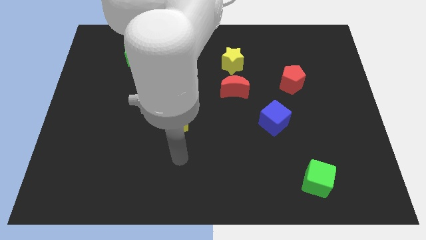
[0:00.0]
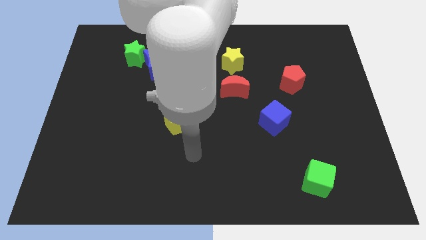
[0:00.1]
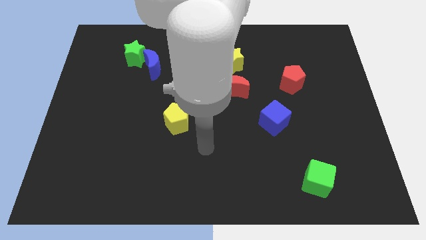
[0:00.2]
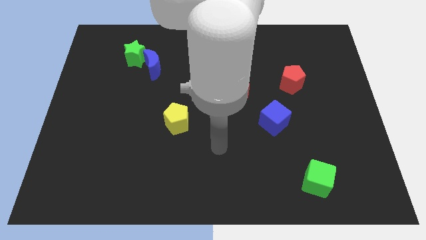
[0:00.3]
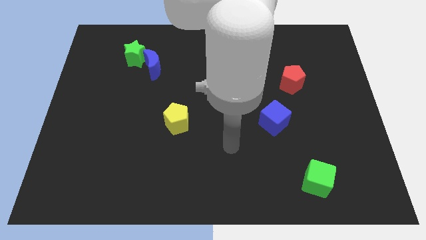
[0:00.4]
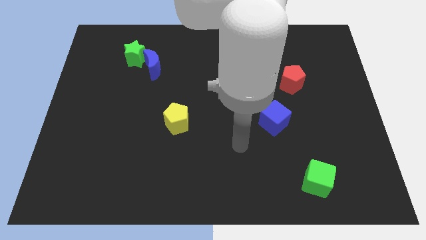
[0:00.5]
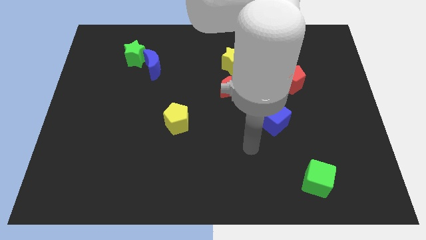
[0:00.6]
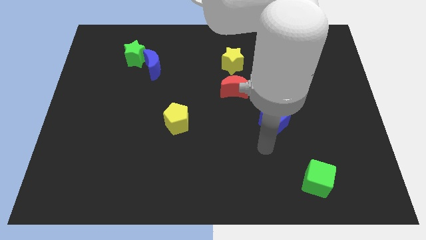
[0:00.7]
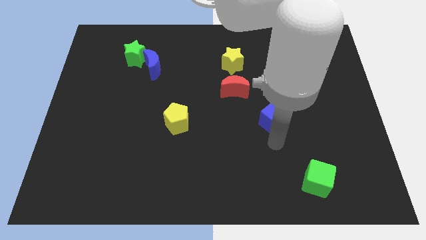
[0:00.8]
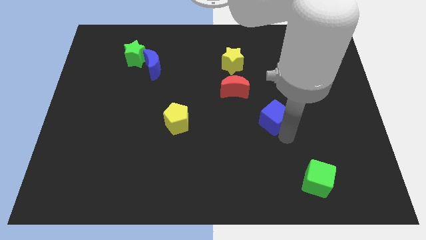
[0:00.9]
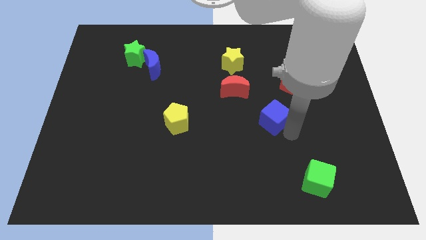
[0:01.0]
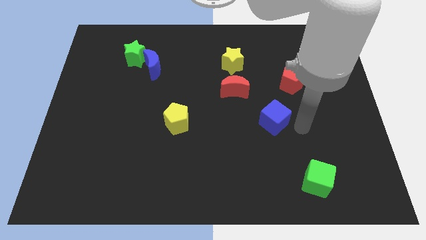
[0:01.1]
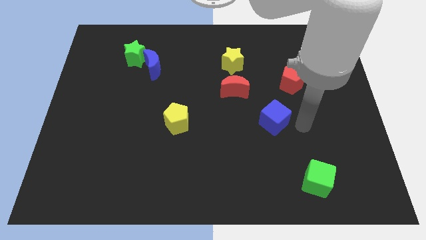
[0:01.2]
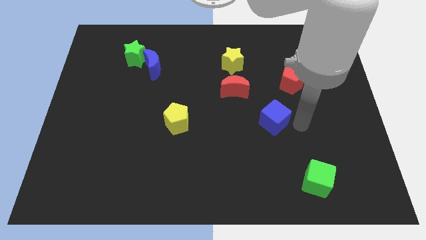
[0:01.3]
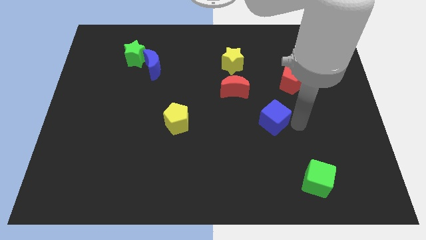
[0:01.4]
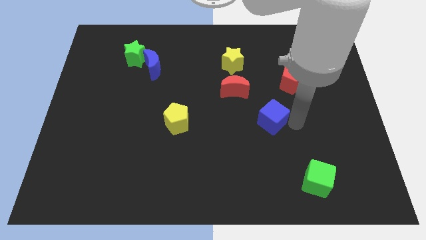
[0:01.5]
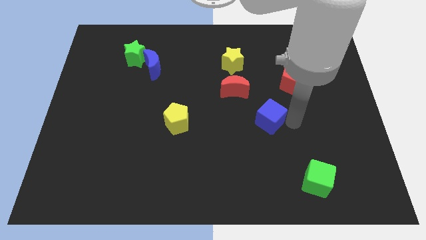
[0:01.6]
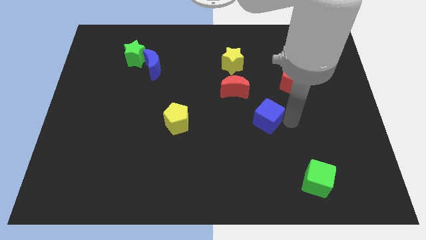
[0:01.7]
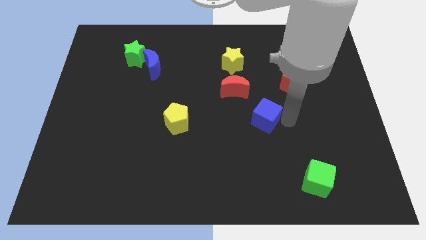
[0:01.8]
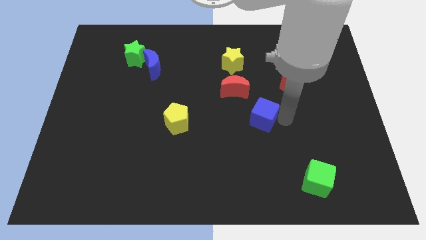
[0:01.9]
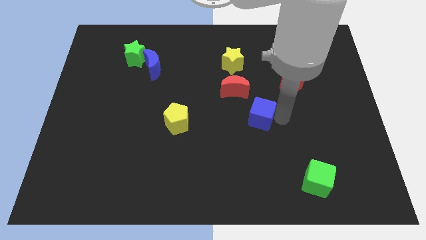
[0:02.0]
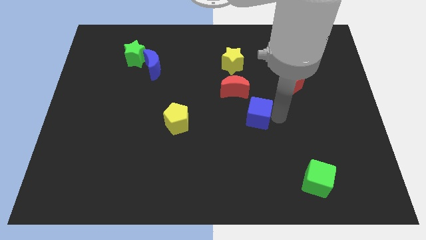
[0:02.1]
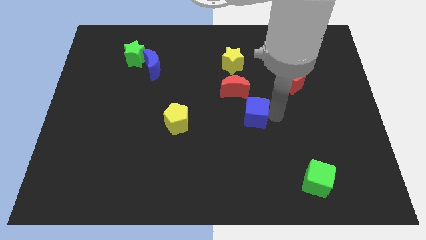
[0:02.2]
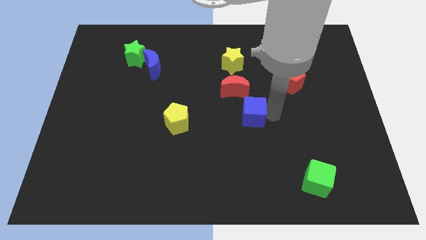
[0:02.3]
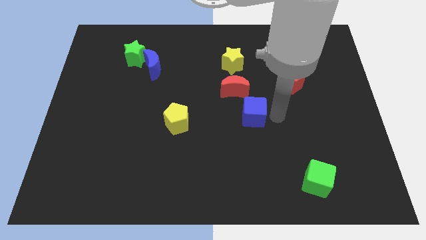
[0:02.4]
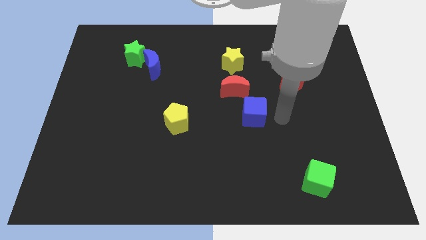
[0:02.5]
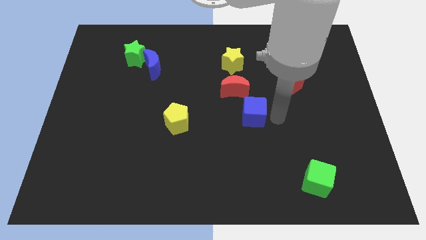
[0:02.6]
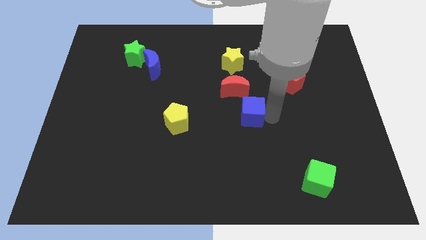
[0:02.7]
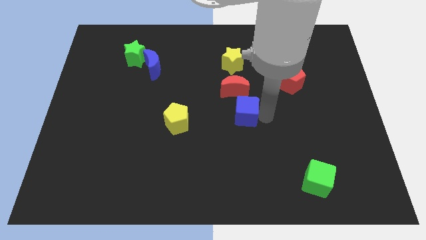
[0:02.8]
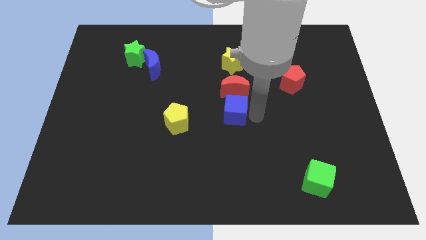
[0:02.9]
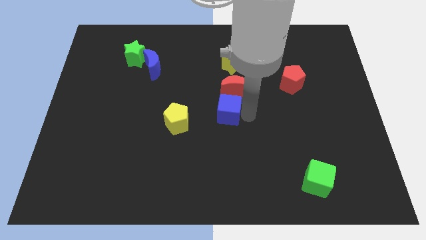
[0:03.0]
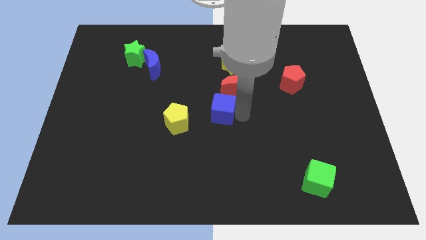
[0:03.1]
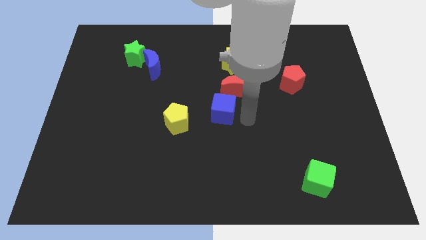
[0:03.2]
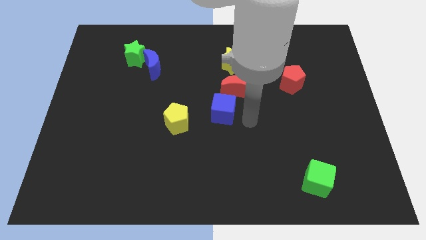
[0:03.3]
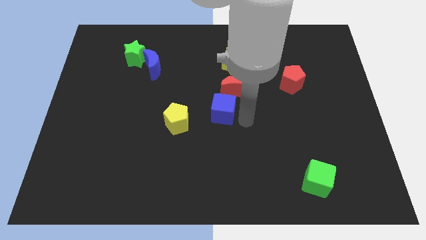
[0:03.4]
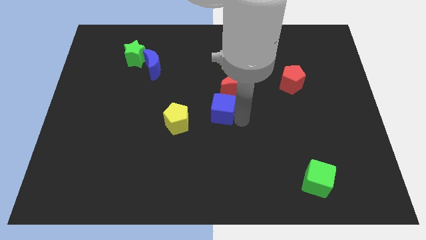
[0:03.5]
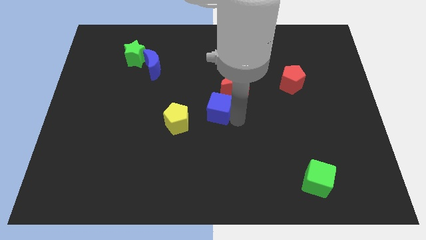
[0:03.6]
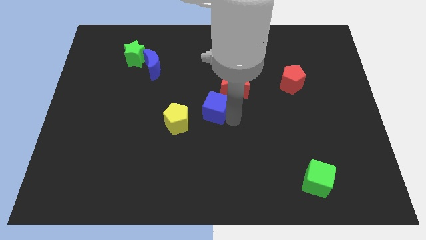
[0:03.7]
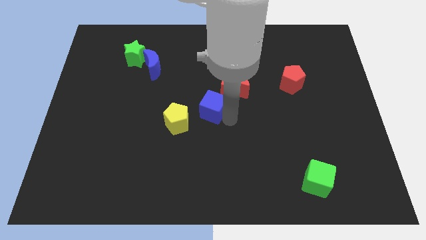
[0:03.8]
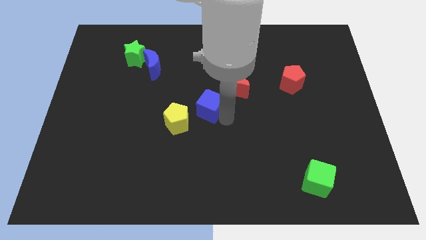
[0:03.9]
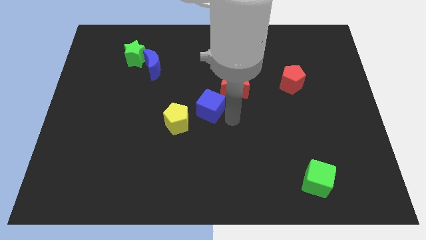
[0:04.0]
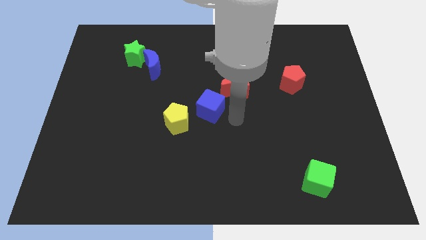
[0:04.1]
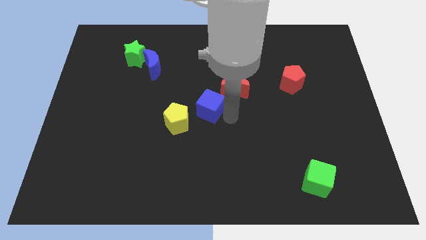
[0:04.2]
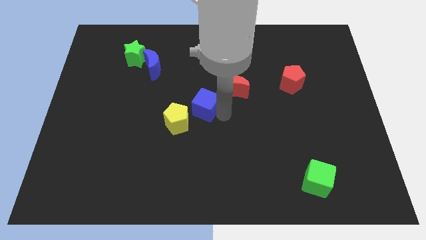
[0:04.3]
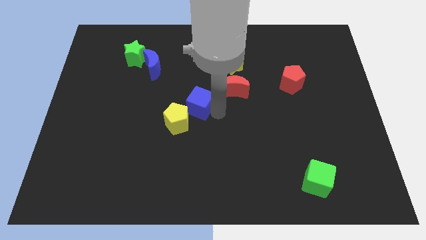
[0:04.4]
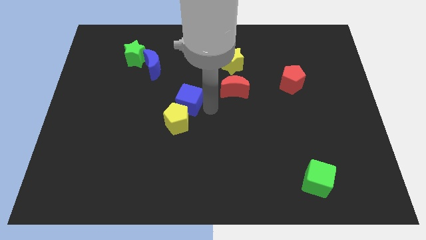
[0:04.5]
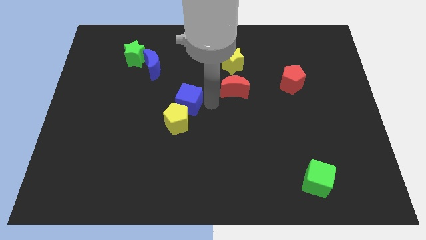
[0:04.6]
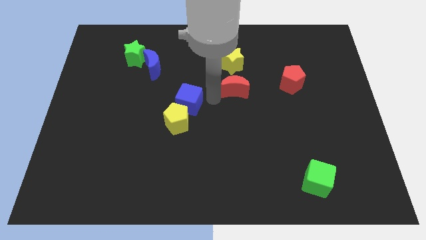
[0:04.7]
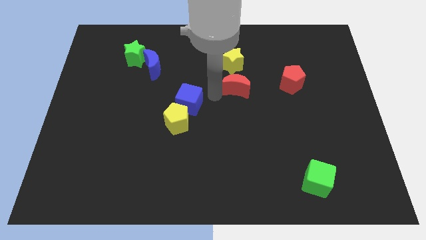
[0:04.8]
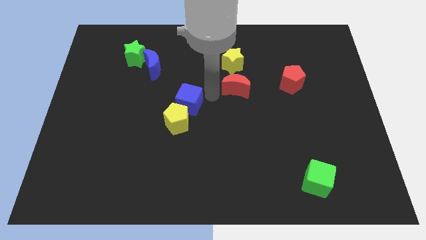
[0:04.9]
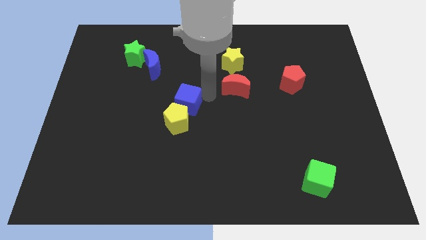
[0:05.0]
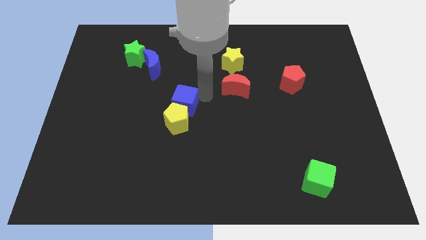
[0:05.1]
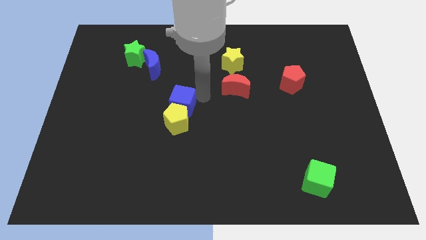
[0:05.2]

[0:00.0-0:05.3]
move the blue cube left

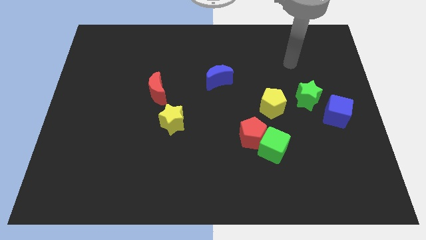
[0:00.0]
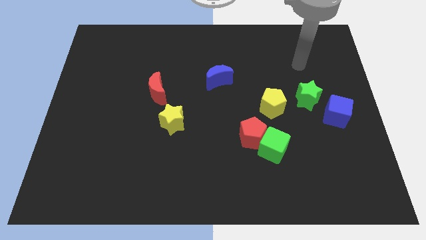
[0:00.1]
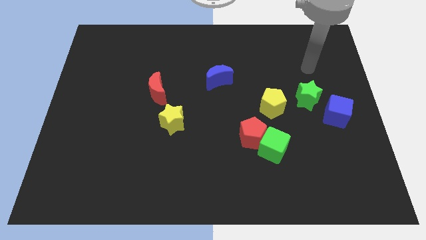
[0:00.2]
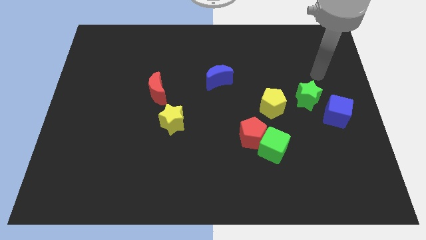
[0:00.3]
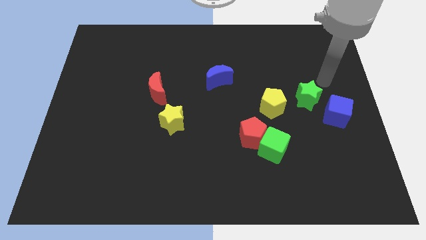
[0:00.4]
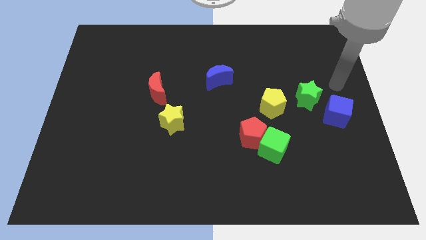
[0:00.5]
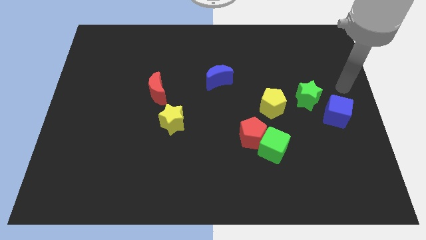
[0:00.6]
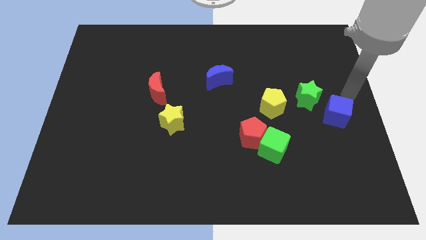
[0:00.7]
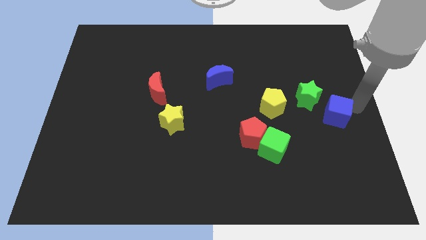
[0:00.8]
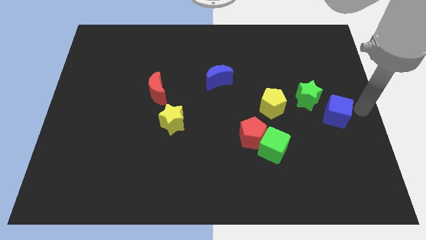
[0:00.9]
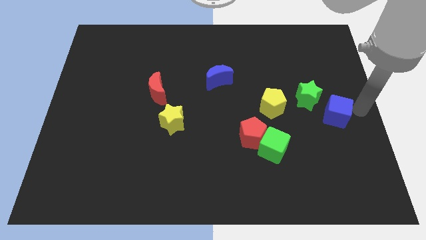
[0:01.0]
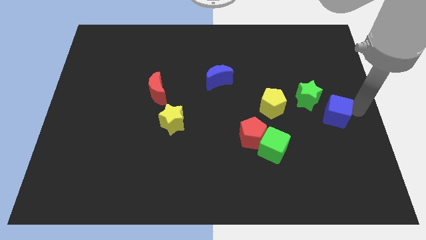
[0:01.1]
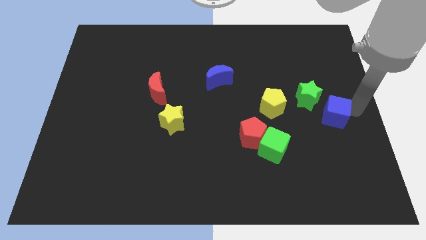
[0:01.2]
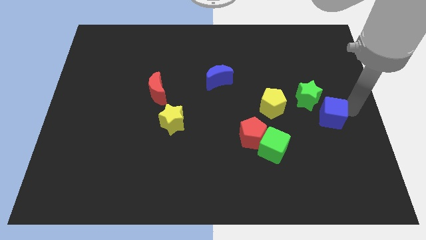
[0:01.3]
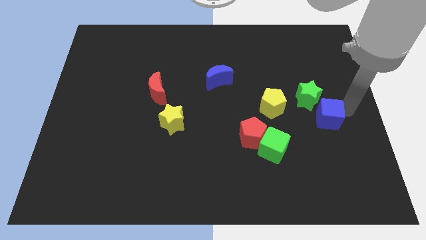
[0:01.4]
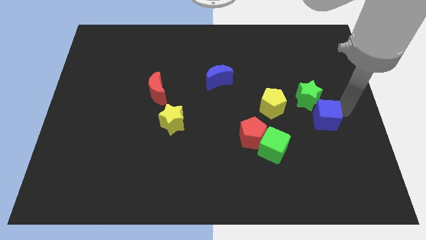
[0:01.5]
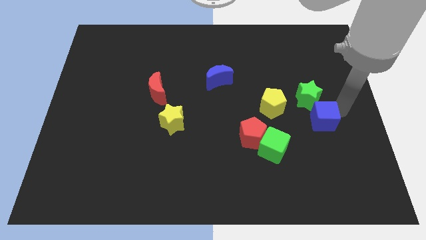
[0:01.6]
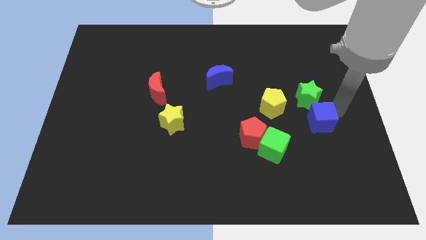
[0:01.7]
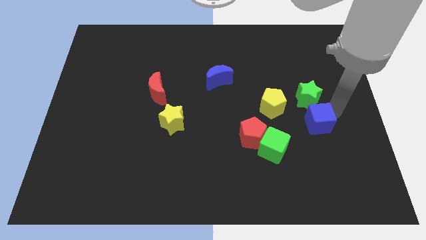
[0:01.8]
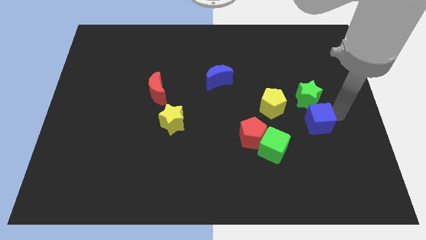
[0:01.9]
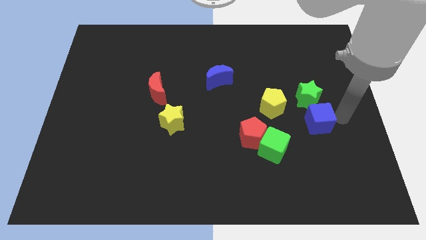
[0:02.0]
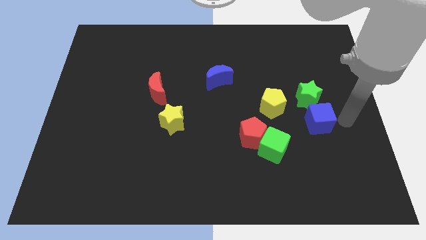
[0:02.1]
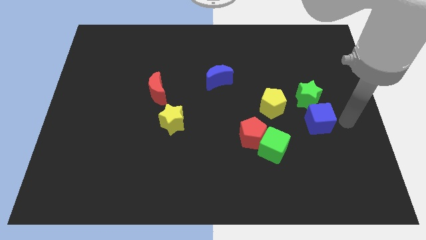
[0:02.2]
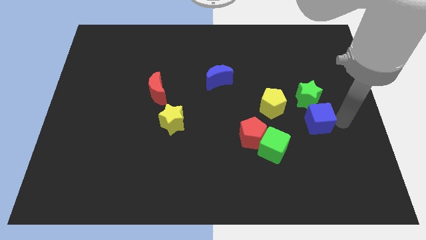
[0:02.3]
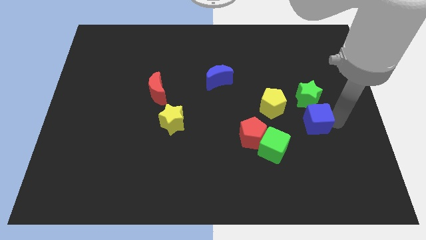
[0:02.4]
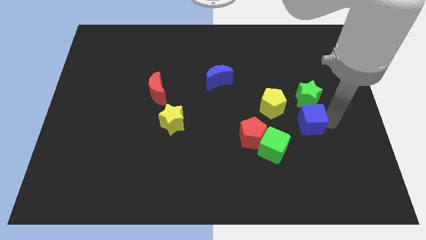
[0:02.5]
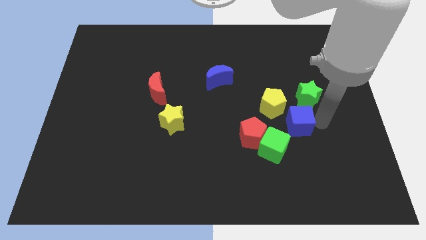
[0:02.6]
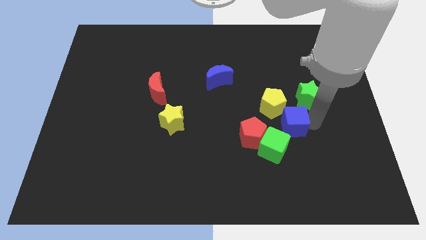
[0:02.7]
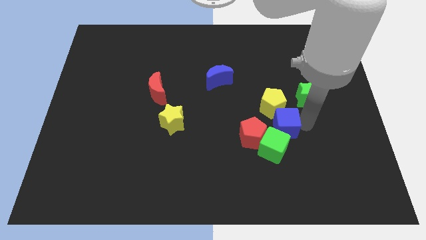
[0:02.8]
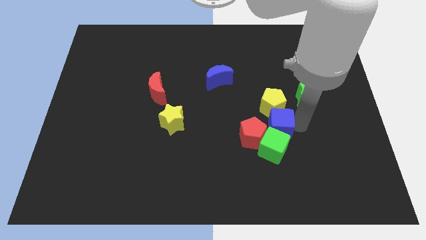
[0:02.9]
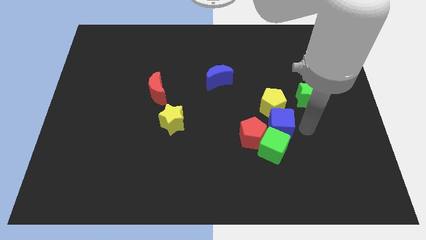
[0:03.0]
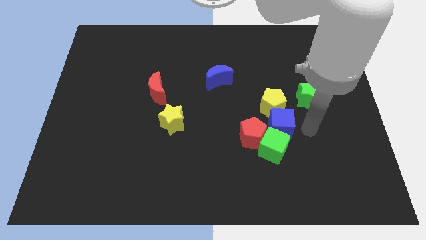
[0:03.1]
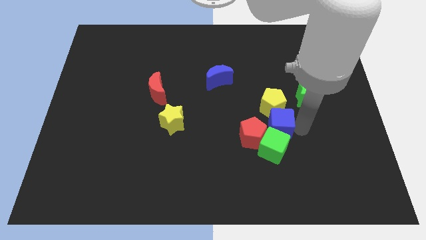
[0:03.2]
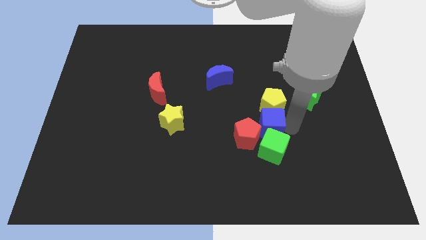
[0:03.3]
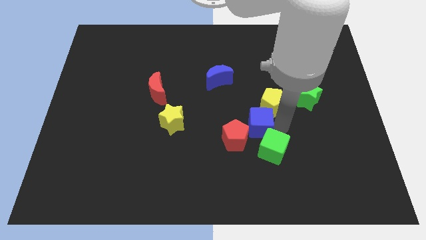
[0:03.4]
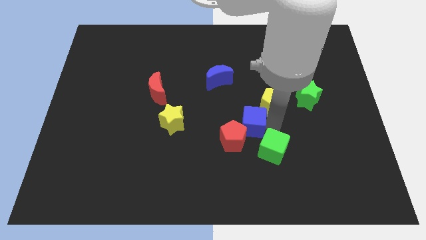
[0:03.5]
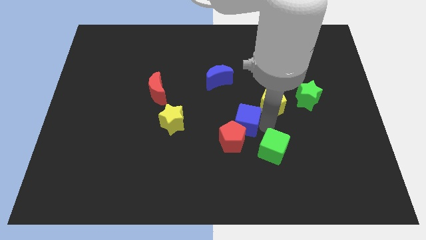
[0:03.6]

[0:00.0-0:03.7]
push the blue cube left
